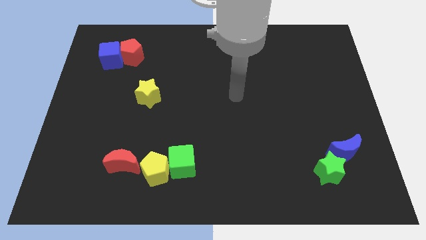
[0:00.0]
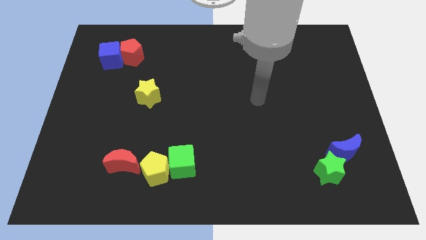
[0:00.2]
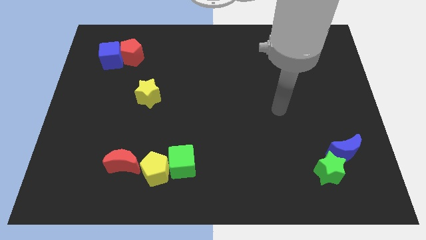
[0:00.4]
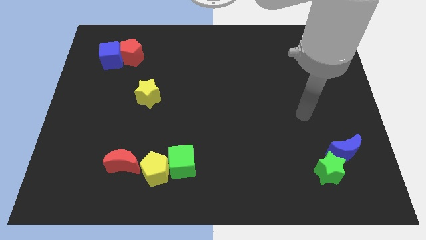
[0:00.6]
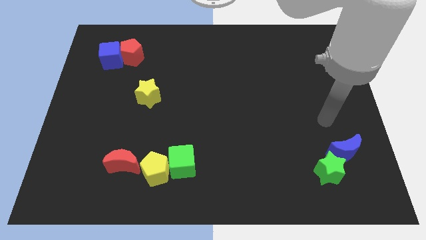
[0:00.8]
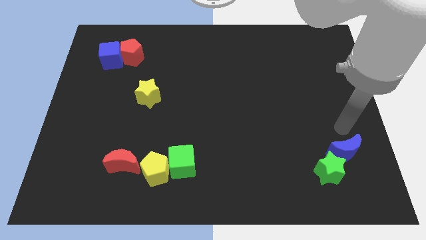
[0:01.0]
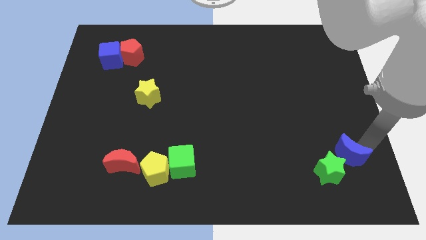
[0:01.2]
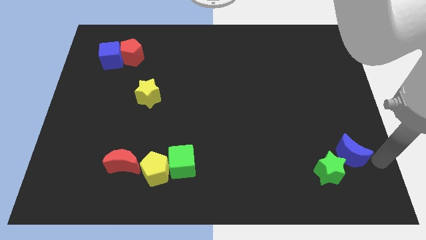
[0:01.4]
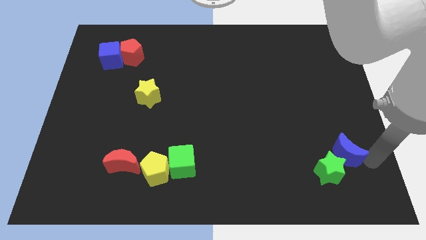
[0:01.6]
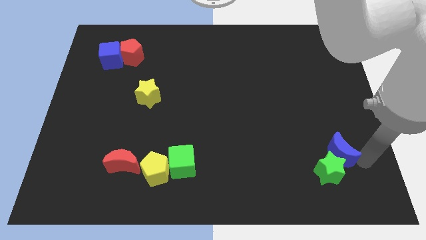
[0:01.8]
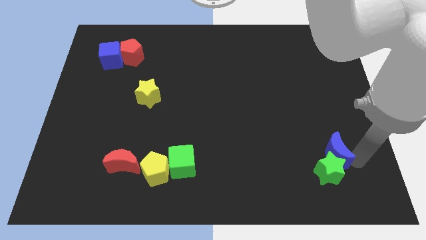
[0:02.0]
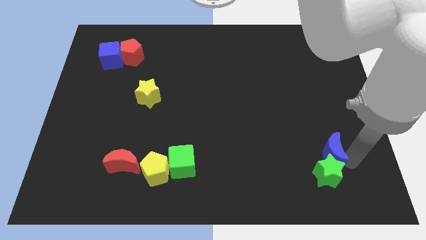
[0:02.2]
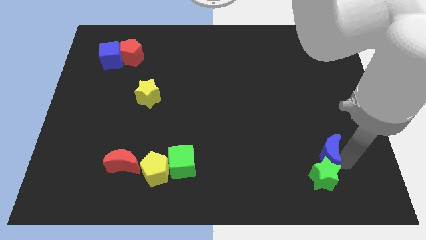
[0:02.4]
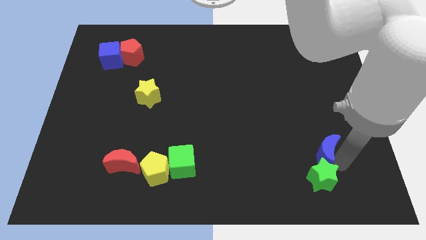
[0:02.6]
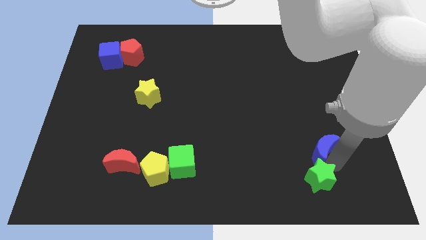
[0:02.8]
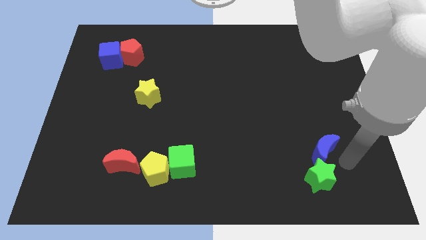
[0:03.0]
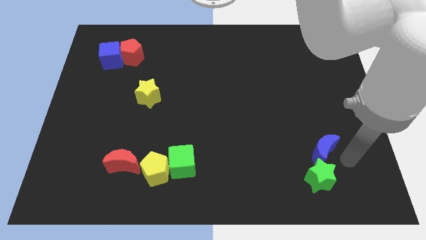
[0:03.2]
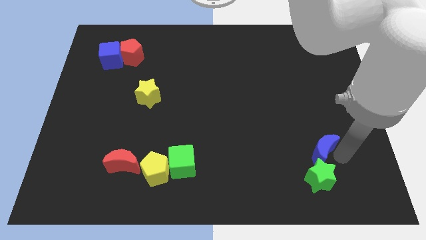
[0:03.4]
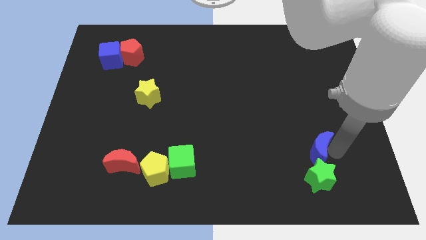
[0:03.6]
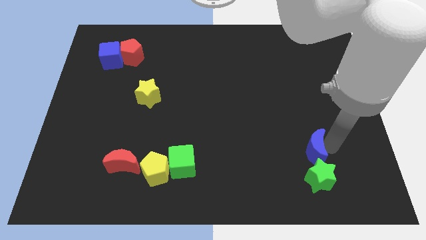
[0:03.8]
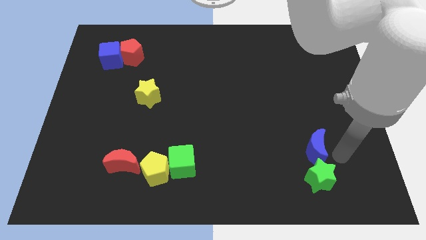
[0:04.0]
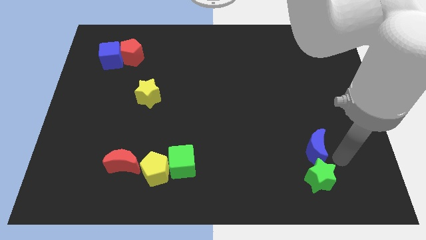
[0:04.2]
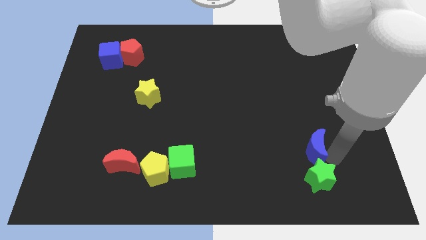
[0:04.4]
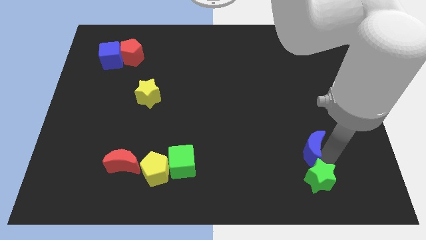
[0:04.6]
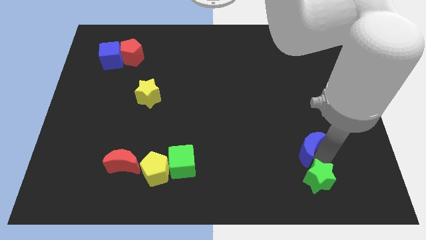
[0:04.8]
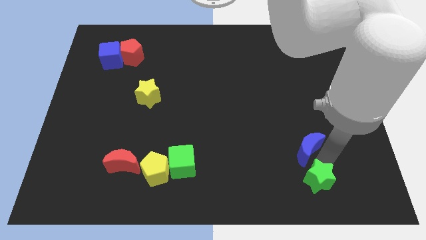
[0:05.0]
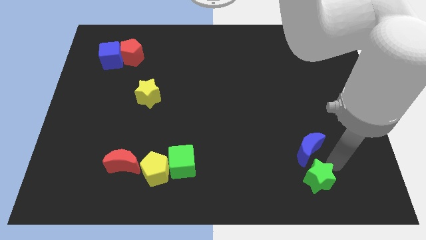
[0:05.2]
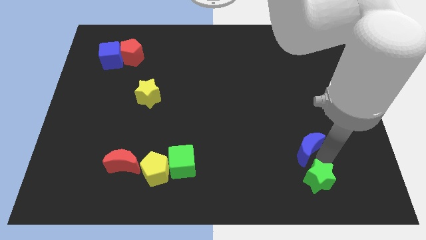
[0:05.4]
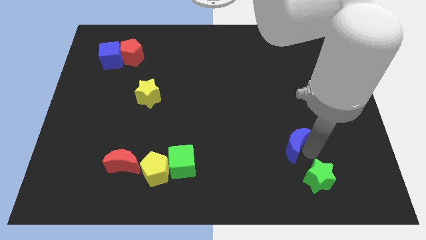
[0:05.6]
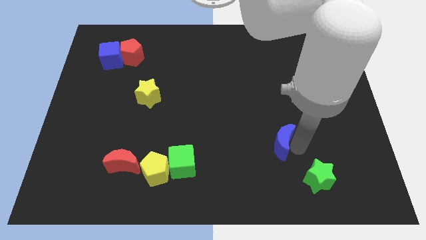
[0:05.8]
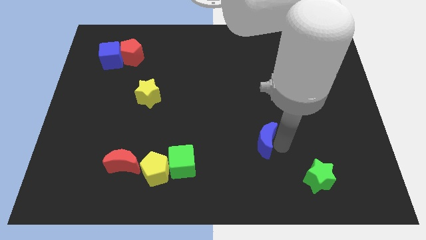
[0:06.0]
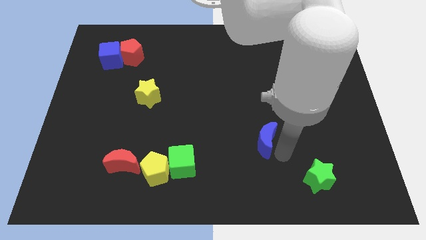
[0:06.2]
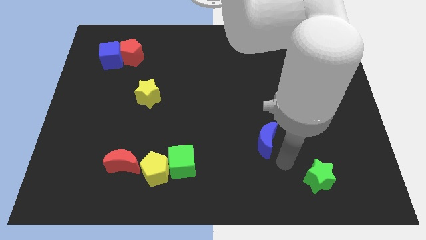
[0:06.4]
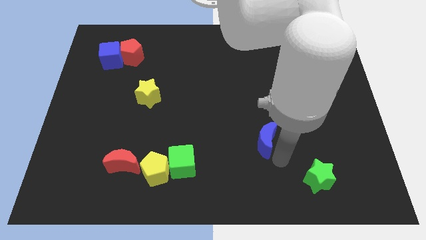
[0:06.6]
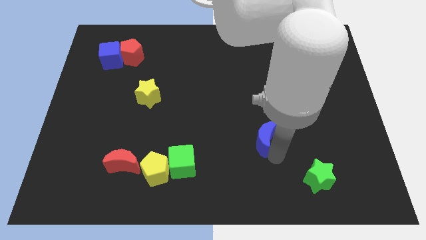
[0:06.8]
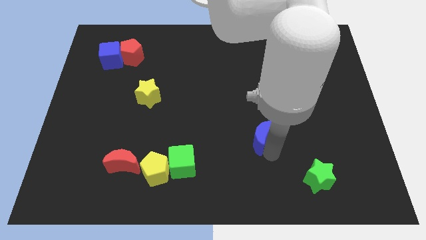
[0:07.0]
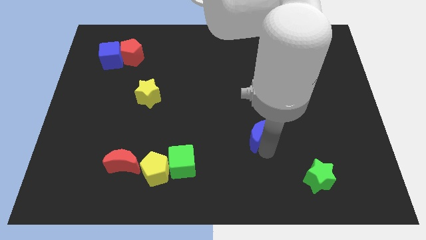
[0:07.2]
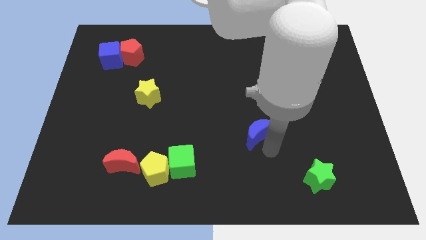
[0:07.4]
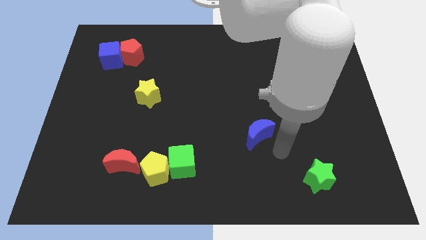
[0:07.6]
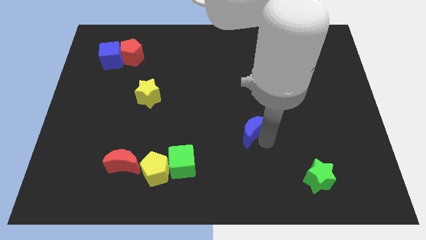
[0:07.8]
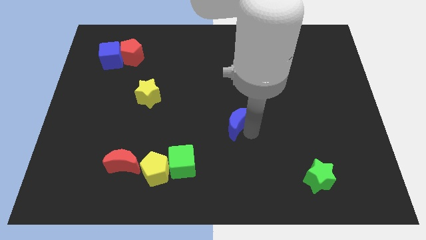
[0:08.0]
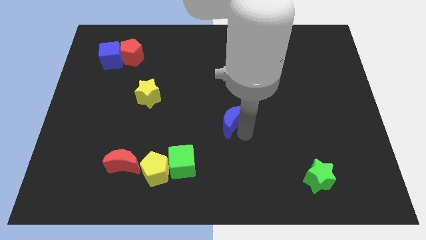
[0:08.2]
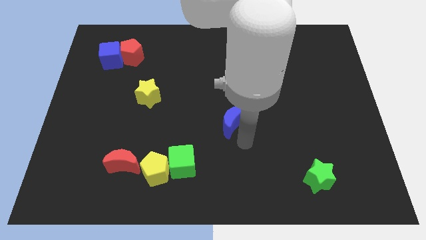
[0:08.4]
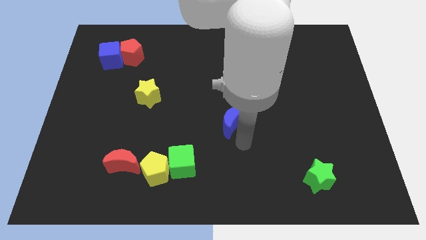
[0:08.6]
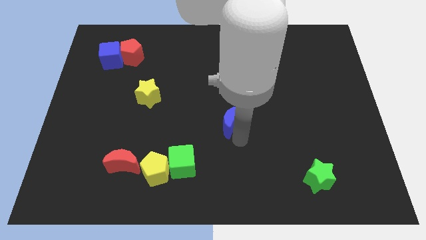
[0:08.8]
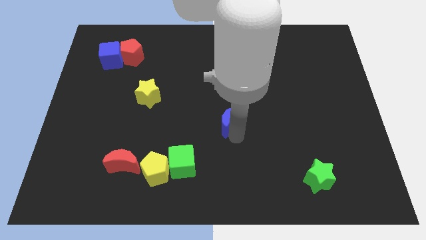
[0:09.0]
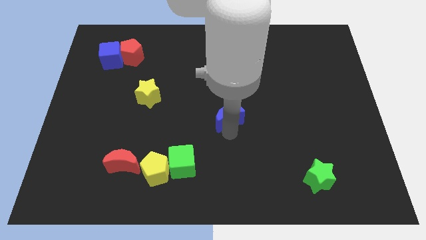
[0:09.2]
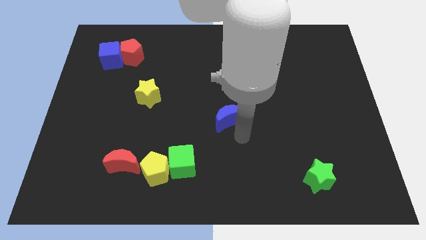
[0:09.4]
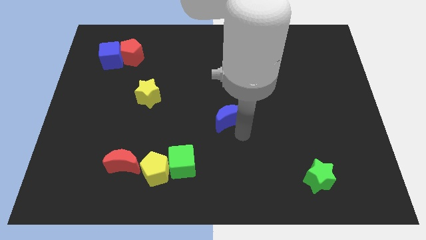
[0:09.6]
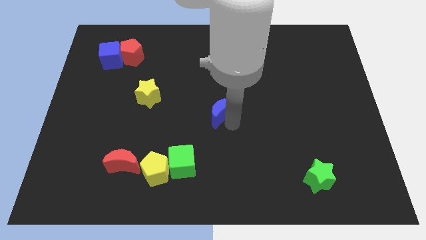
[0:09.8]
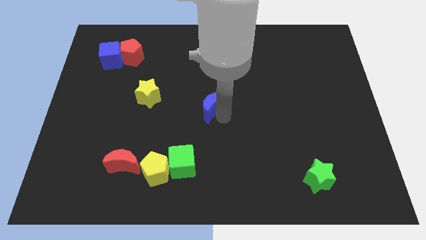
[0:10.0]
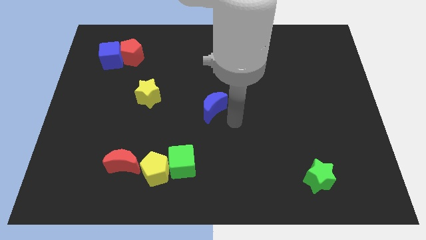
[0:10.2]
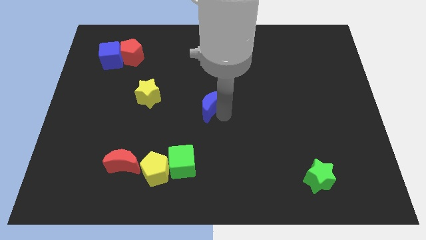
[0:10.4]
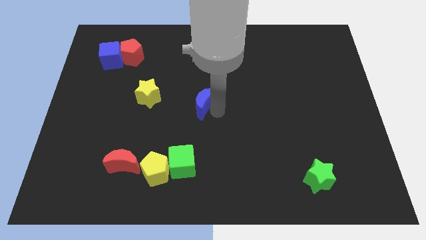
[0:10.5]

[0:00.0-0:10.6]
move the blue moon to the right side of the yellow star

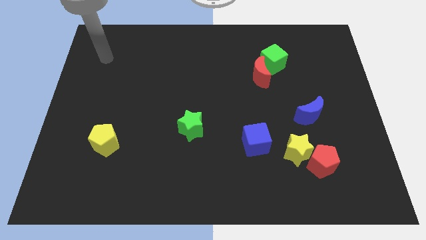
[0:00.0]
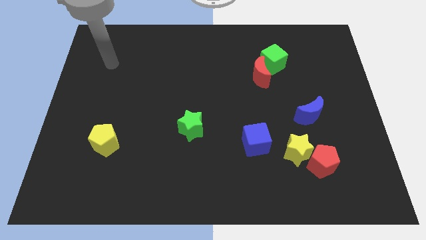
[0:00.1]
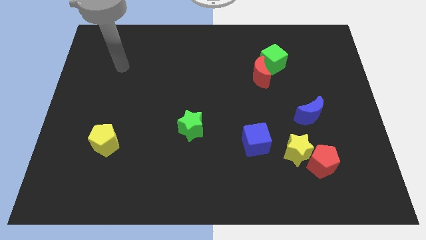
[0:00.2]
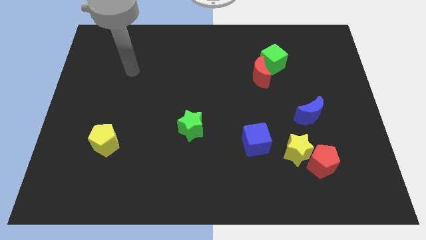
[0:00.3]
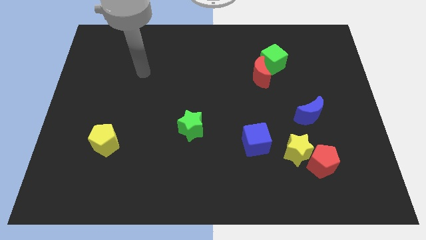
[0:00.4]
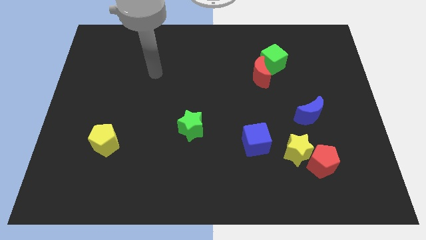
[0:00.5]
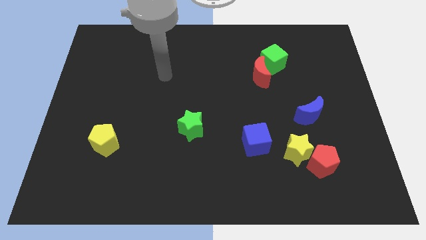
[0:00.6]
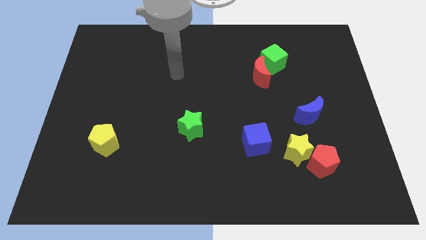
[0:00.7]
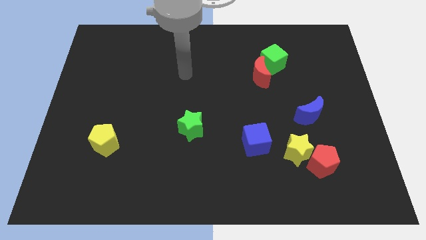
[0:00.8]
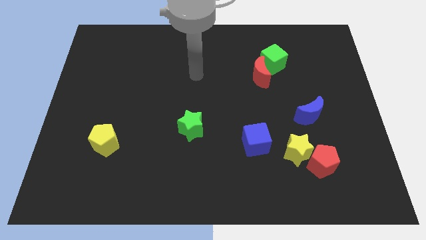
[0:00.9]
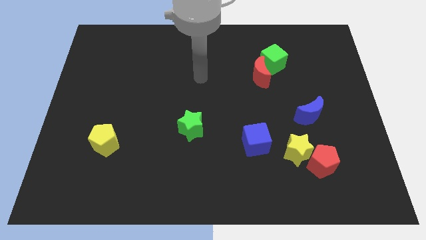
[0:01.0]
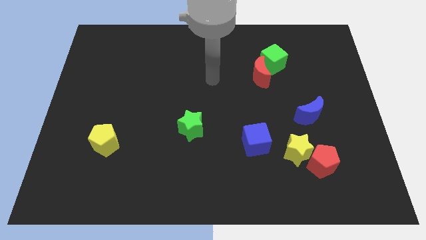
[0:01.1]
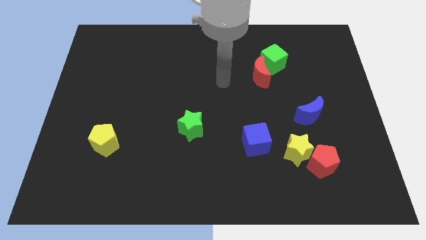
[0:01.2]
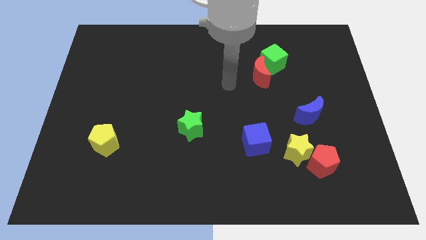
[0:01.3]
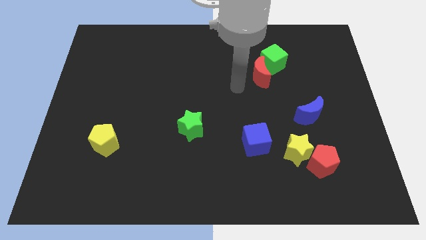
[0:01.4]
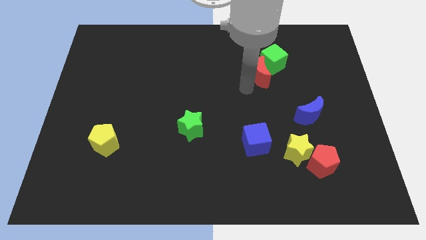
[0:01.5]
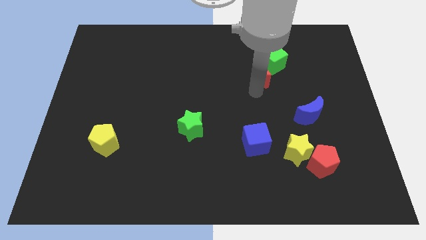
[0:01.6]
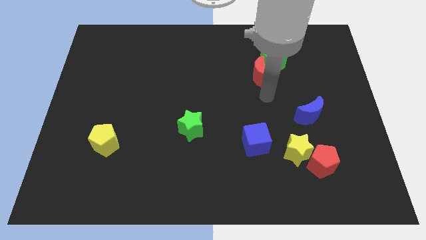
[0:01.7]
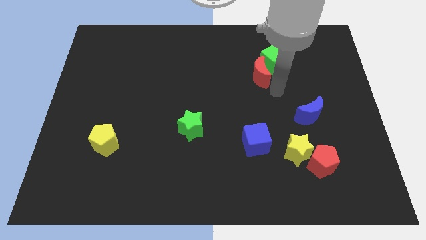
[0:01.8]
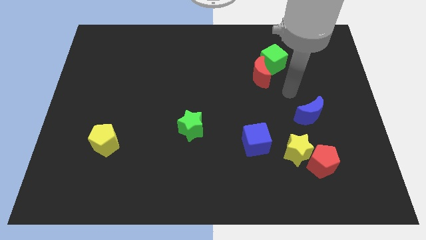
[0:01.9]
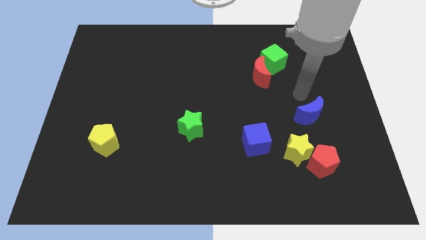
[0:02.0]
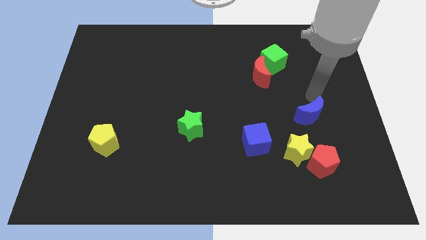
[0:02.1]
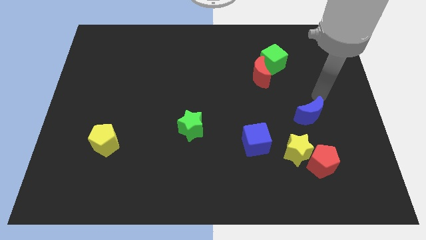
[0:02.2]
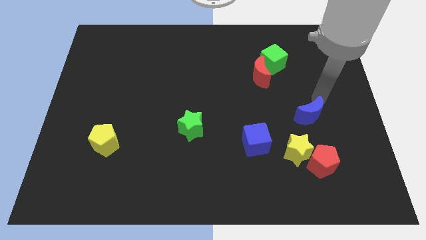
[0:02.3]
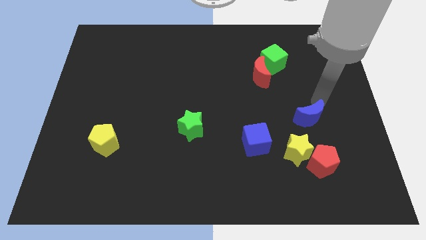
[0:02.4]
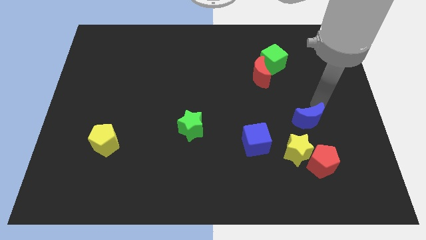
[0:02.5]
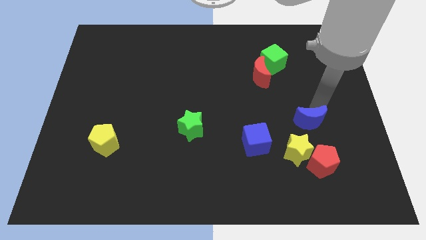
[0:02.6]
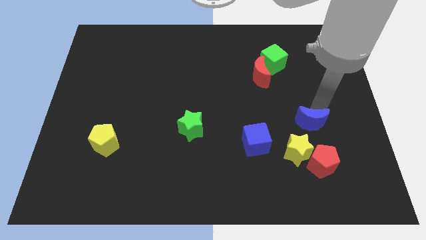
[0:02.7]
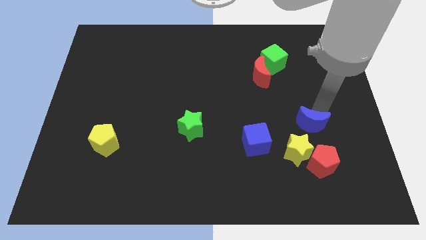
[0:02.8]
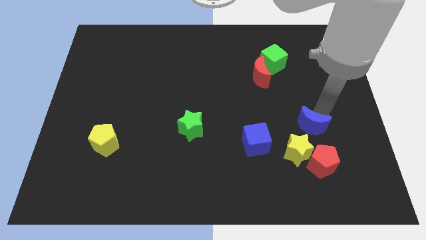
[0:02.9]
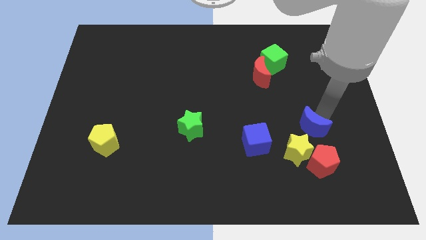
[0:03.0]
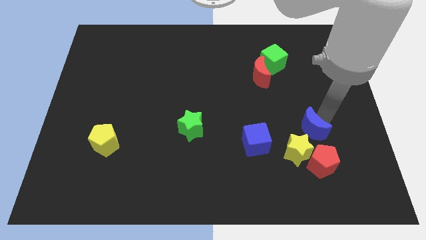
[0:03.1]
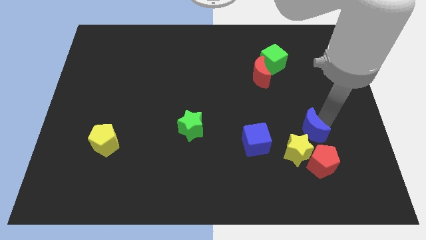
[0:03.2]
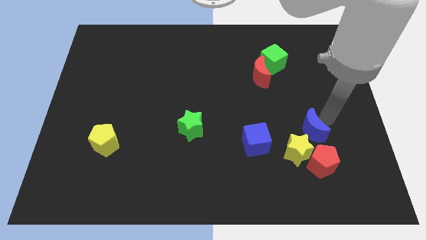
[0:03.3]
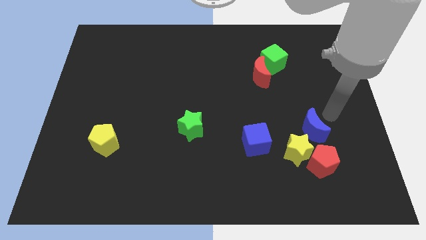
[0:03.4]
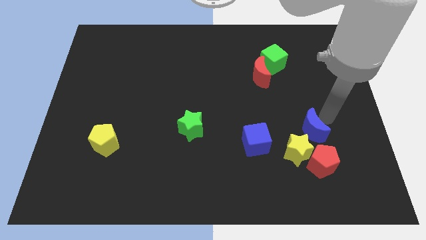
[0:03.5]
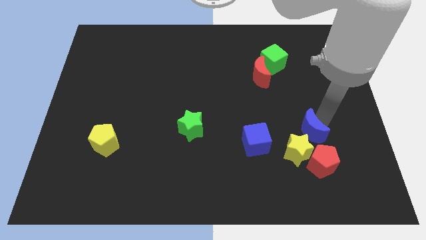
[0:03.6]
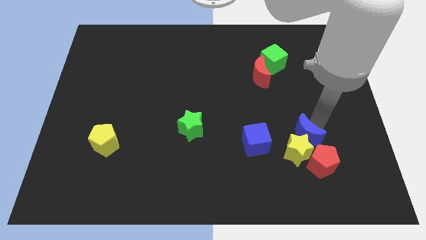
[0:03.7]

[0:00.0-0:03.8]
move the blue moon diagonally up and to the left of the red pentagon
